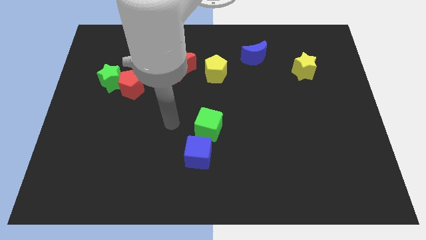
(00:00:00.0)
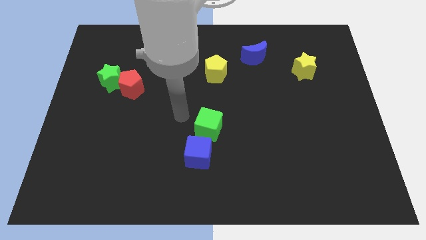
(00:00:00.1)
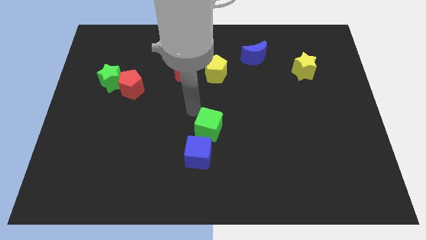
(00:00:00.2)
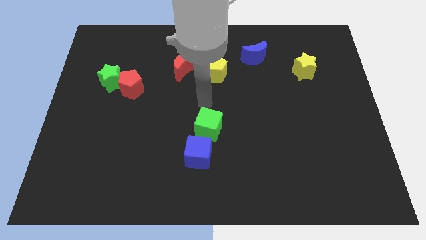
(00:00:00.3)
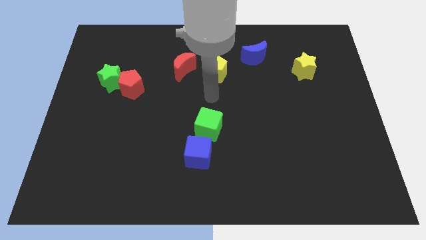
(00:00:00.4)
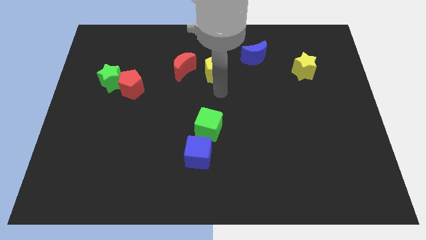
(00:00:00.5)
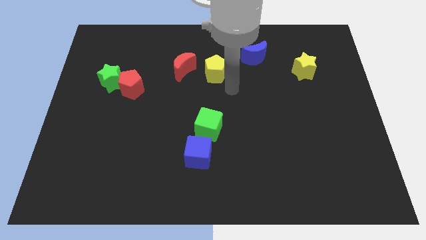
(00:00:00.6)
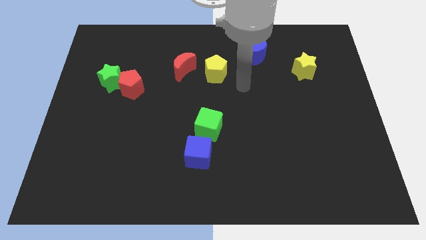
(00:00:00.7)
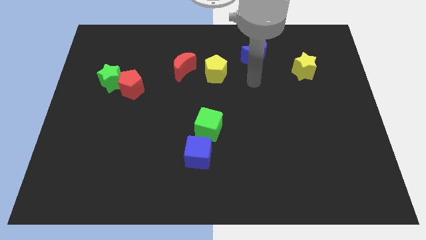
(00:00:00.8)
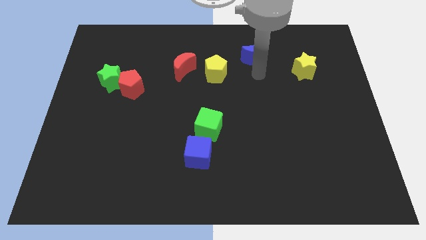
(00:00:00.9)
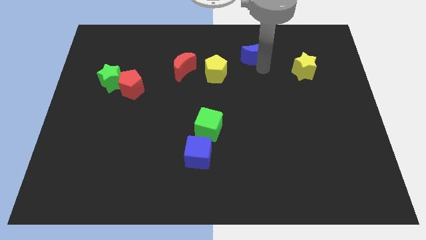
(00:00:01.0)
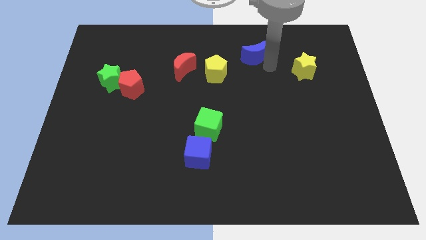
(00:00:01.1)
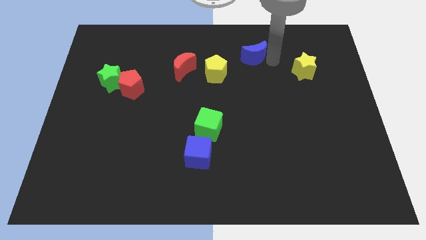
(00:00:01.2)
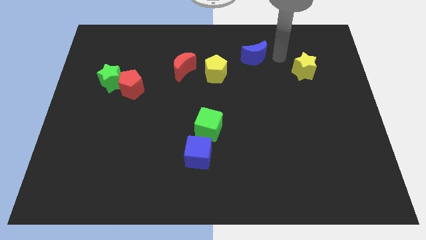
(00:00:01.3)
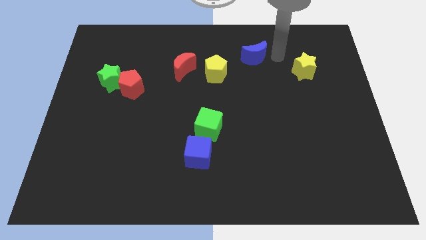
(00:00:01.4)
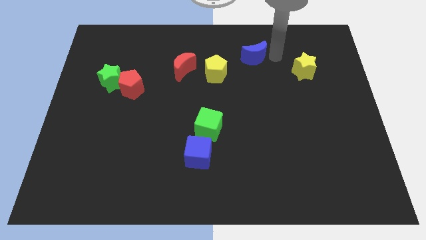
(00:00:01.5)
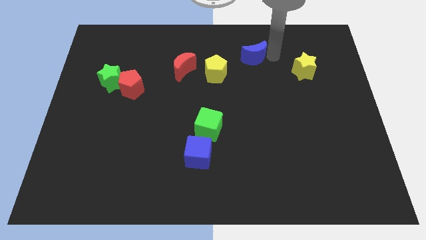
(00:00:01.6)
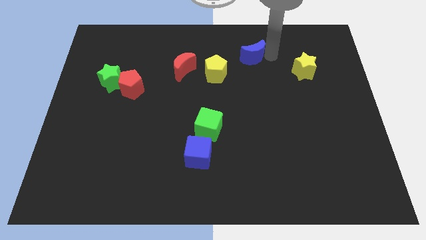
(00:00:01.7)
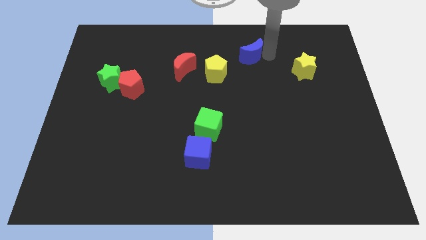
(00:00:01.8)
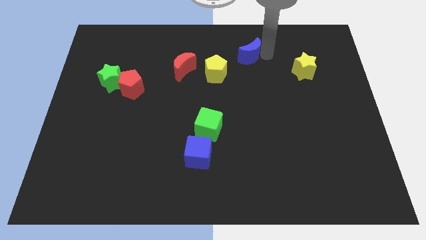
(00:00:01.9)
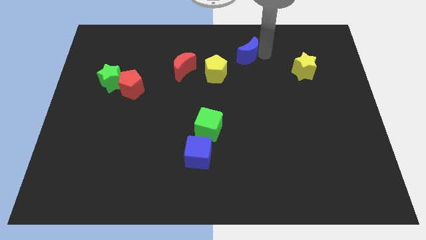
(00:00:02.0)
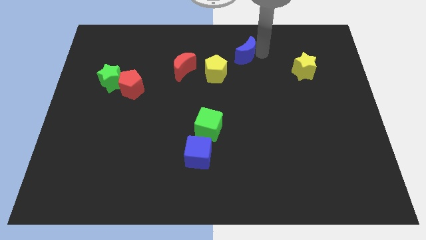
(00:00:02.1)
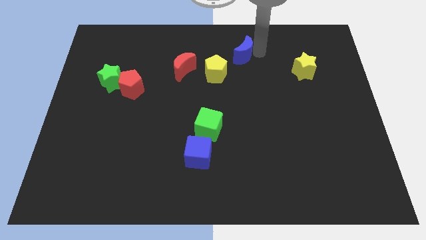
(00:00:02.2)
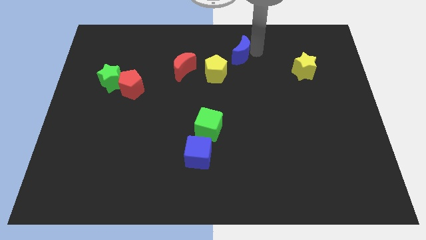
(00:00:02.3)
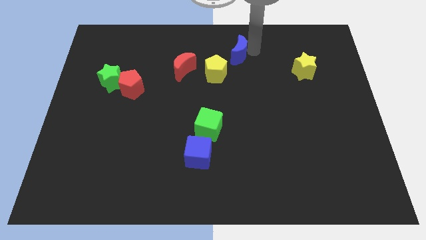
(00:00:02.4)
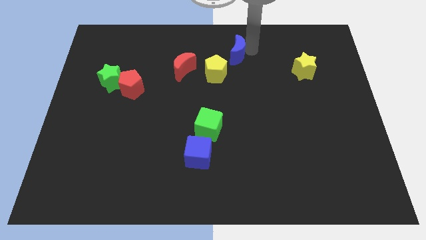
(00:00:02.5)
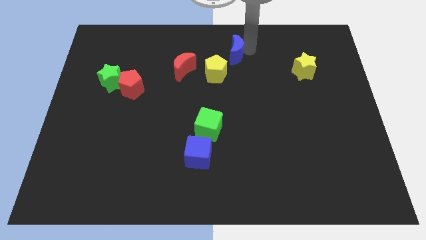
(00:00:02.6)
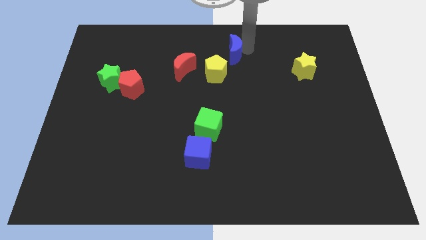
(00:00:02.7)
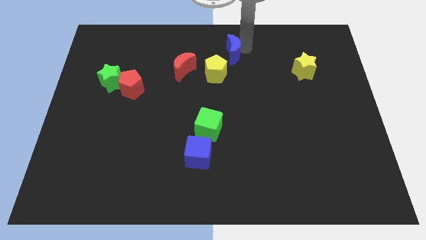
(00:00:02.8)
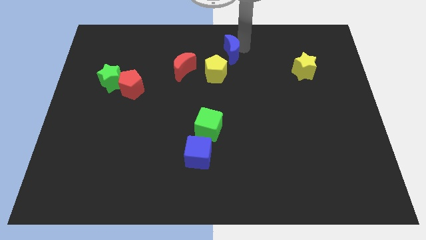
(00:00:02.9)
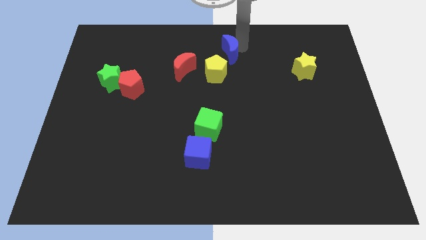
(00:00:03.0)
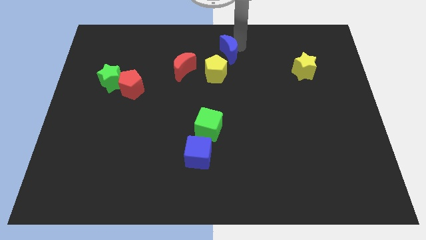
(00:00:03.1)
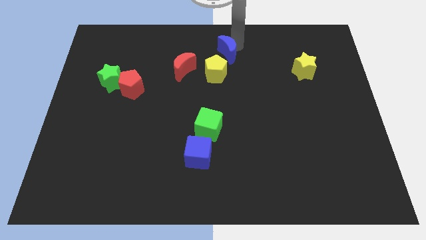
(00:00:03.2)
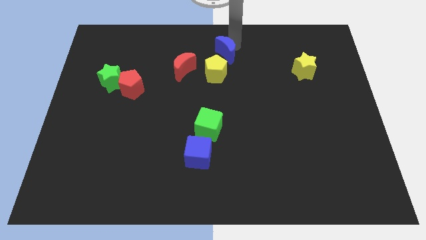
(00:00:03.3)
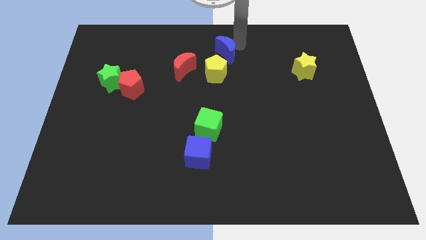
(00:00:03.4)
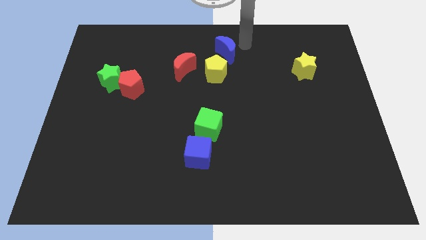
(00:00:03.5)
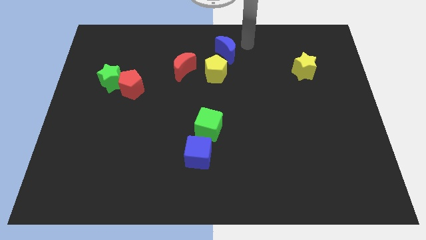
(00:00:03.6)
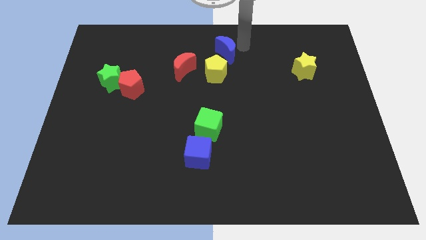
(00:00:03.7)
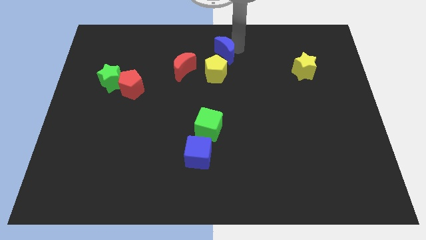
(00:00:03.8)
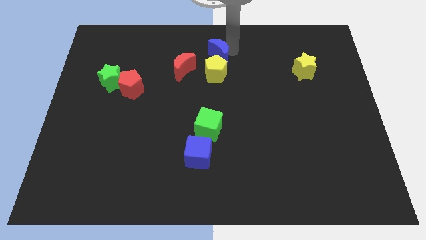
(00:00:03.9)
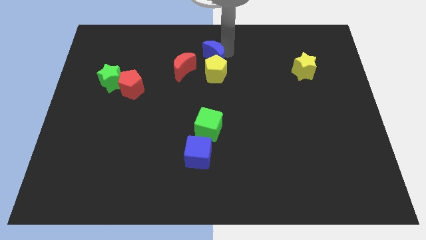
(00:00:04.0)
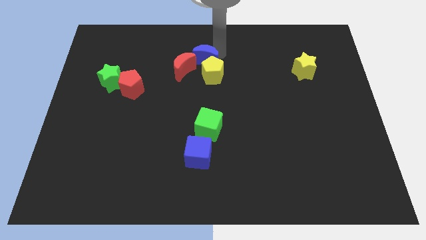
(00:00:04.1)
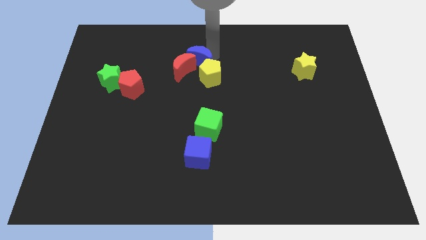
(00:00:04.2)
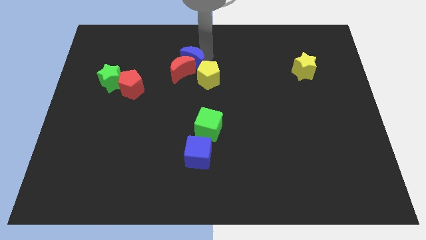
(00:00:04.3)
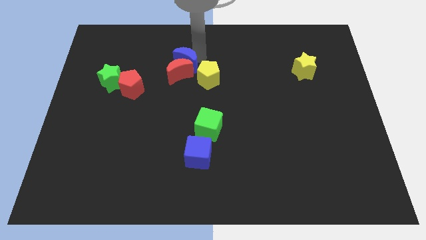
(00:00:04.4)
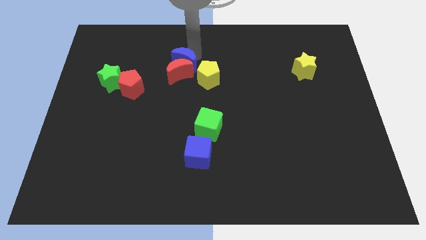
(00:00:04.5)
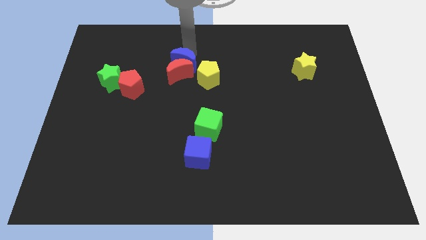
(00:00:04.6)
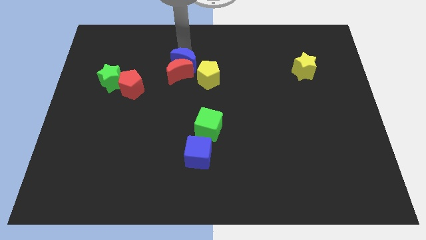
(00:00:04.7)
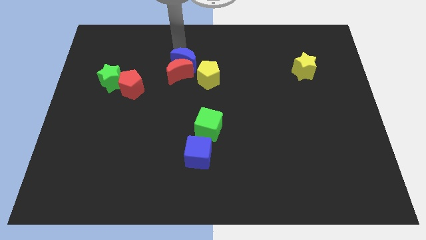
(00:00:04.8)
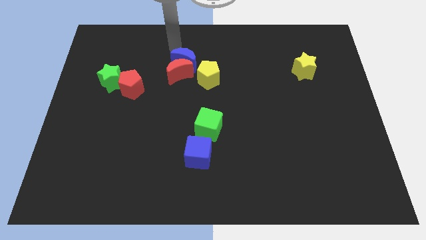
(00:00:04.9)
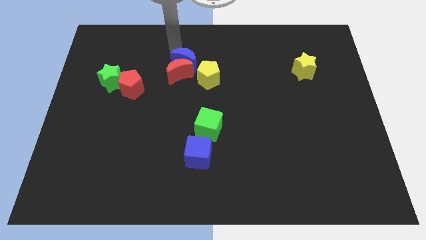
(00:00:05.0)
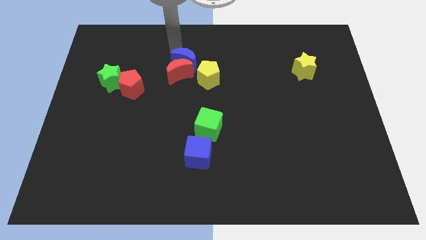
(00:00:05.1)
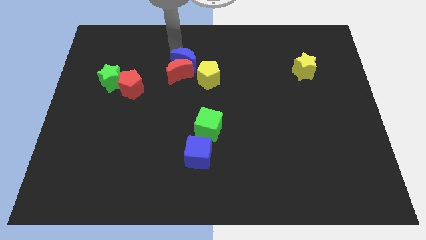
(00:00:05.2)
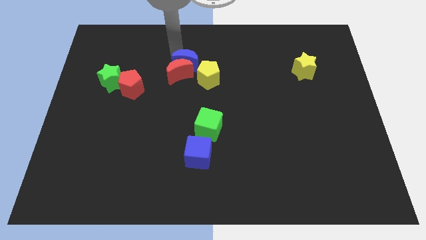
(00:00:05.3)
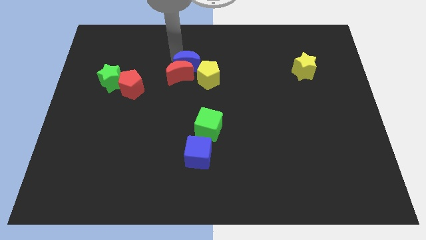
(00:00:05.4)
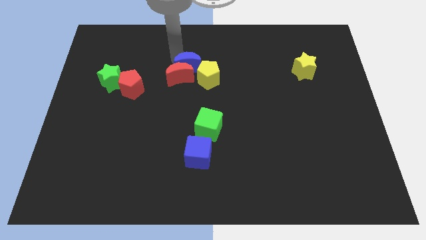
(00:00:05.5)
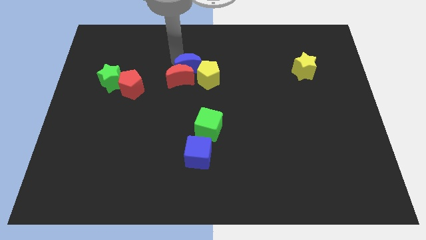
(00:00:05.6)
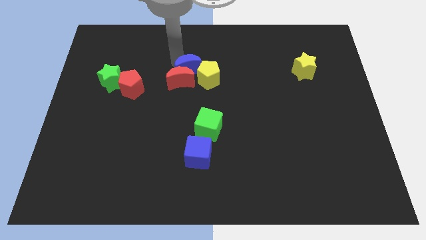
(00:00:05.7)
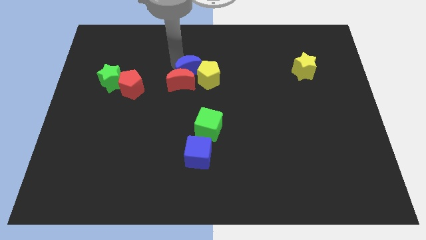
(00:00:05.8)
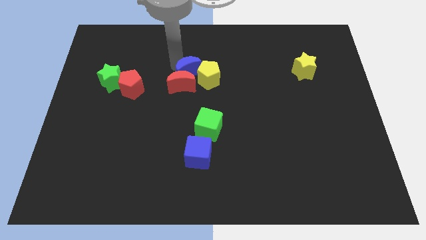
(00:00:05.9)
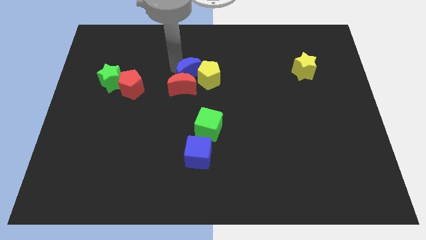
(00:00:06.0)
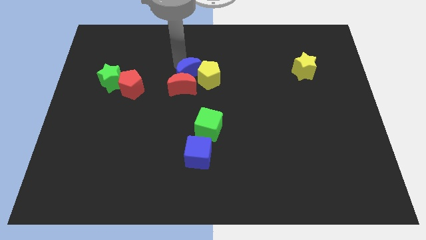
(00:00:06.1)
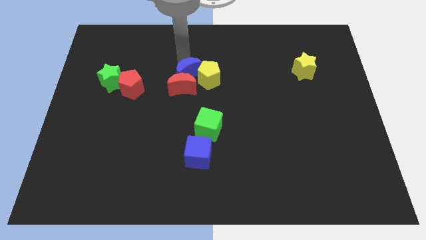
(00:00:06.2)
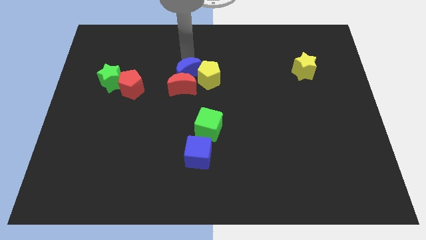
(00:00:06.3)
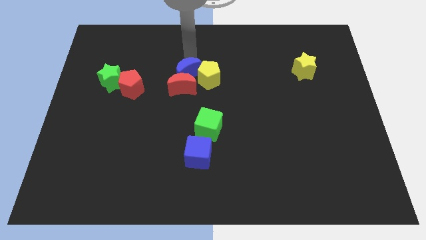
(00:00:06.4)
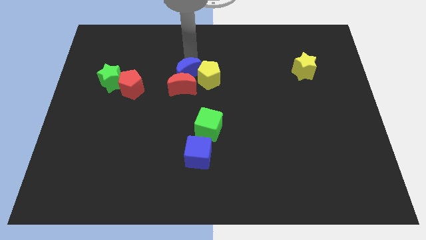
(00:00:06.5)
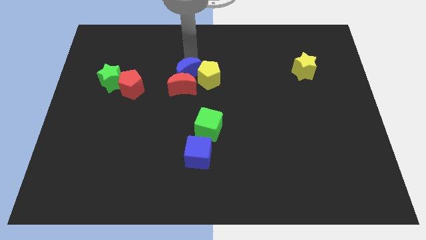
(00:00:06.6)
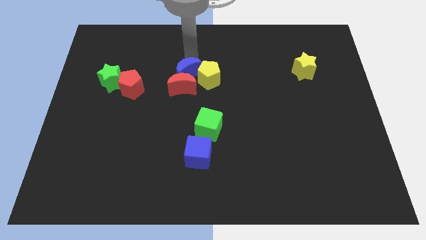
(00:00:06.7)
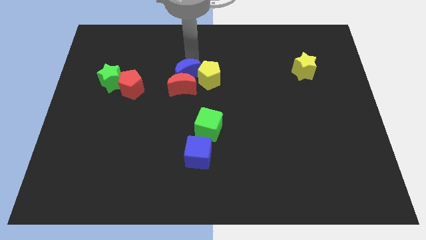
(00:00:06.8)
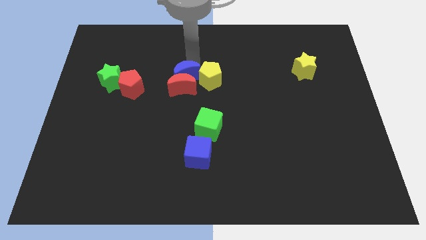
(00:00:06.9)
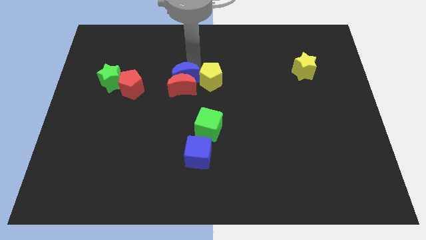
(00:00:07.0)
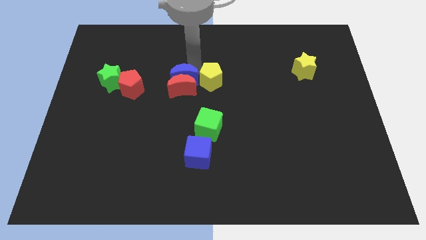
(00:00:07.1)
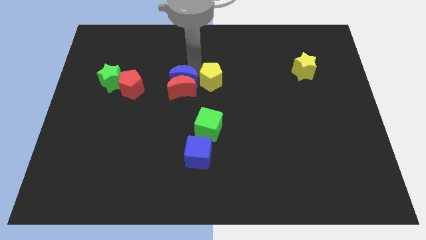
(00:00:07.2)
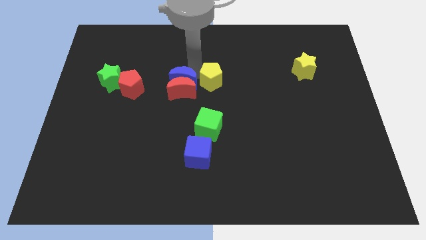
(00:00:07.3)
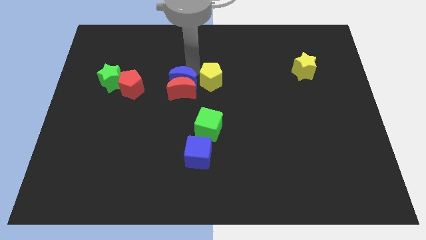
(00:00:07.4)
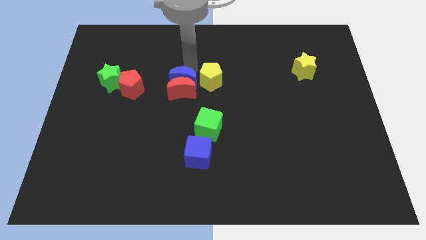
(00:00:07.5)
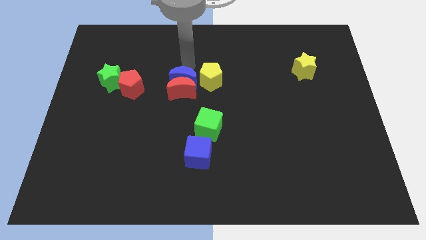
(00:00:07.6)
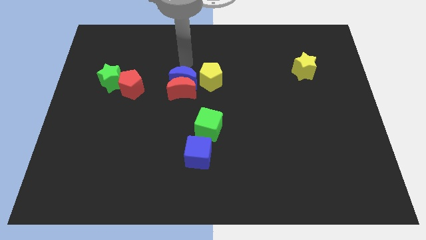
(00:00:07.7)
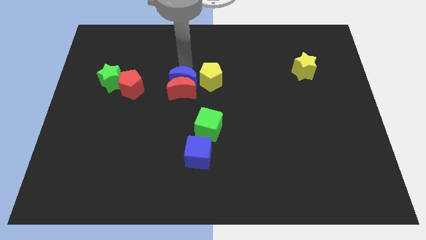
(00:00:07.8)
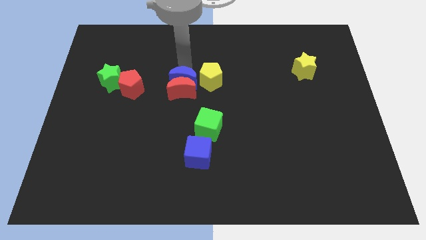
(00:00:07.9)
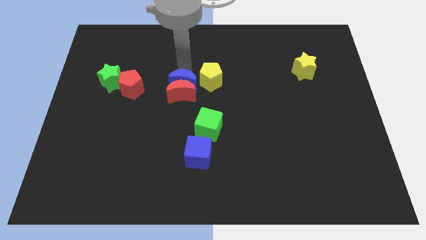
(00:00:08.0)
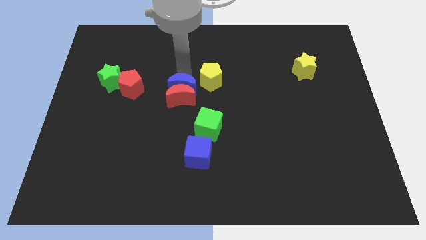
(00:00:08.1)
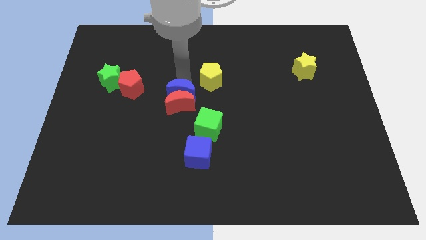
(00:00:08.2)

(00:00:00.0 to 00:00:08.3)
move the blue moon down and left diagonally
